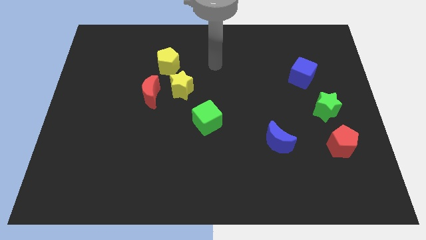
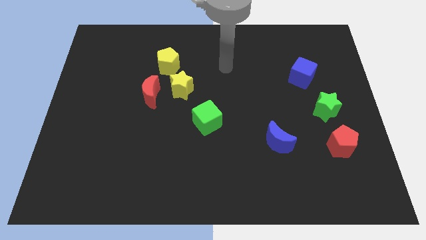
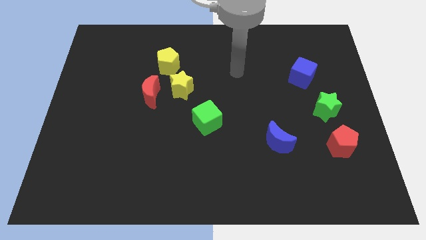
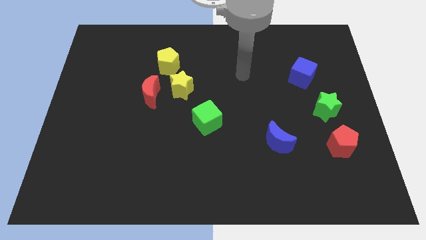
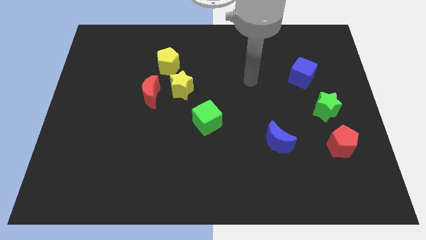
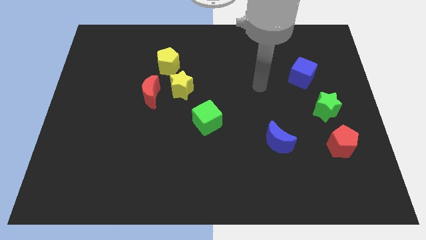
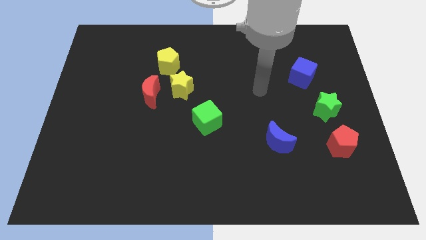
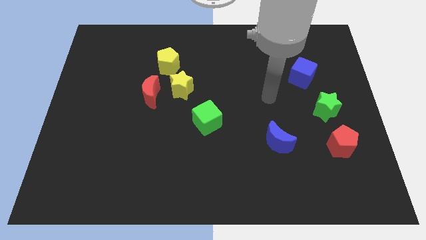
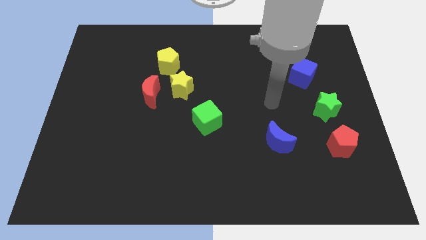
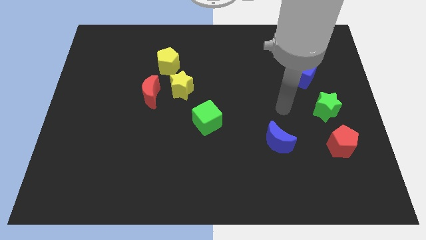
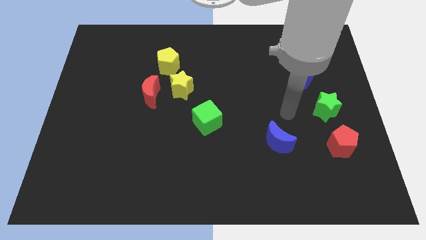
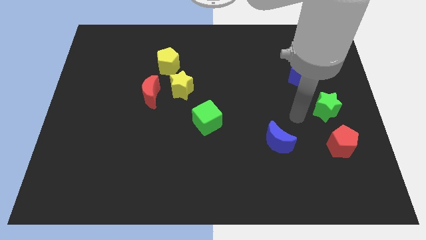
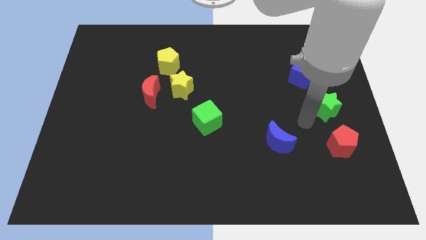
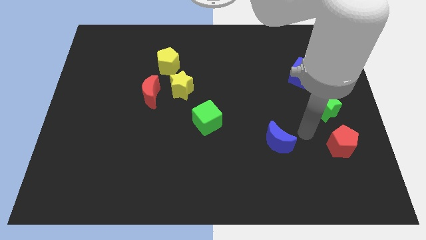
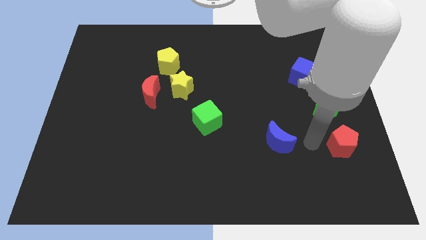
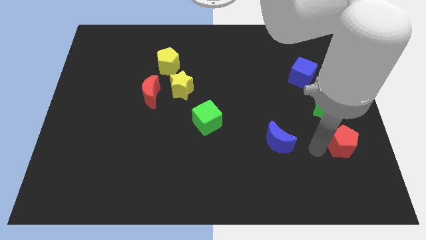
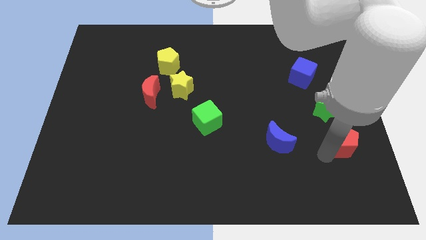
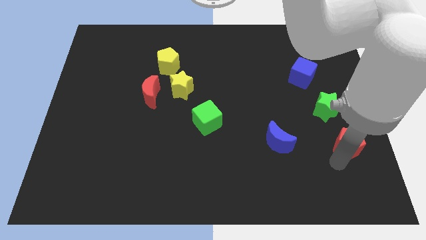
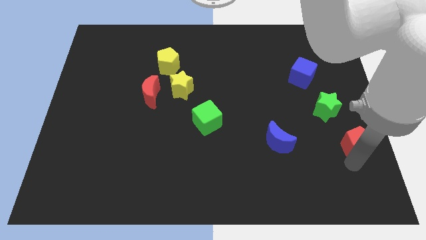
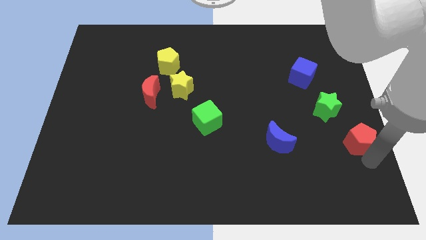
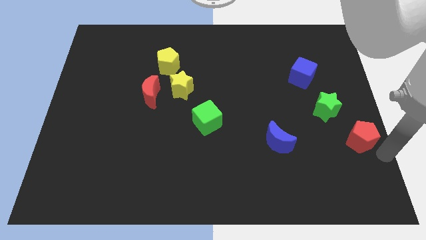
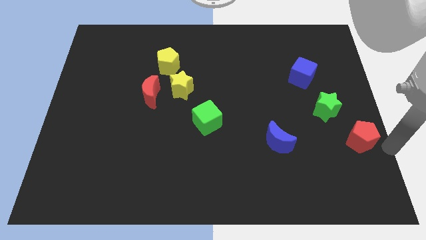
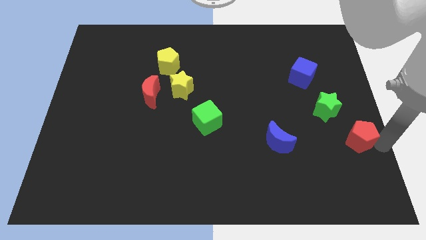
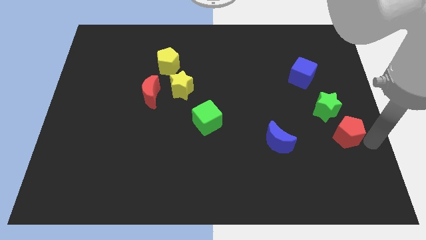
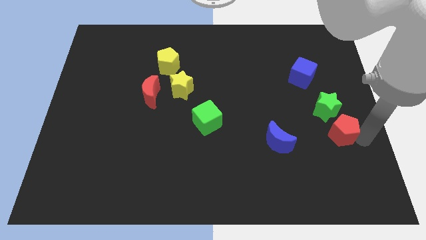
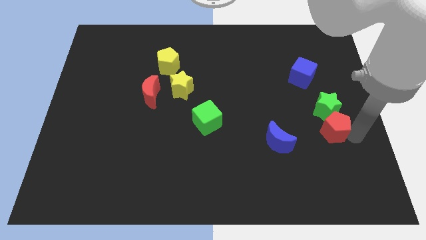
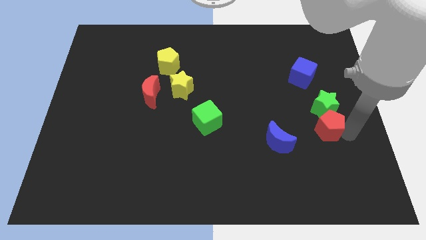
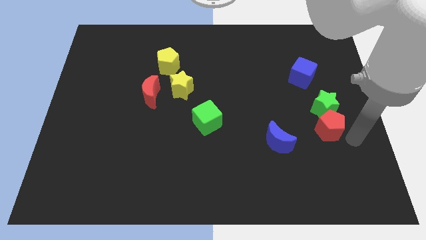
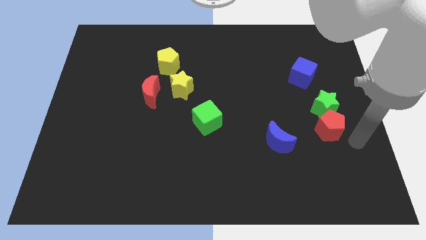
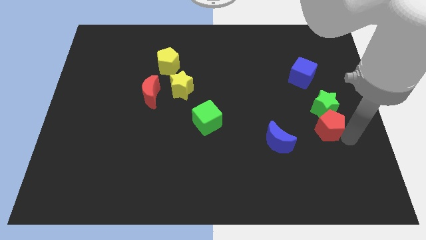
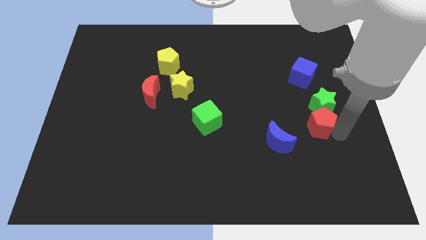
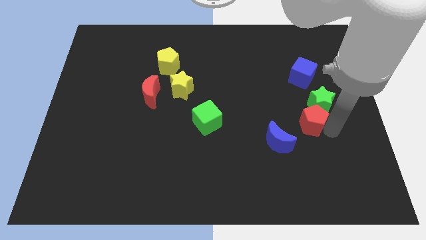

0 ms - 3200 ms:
push the red pentagon up and then to the left somewhat

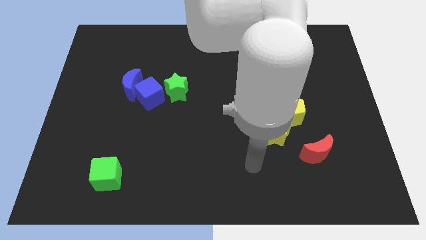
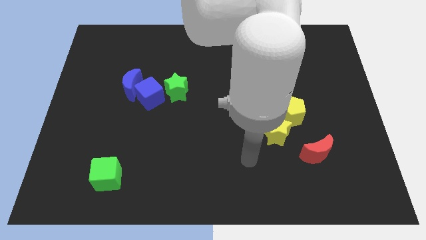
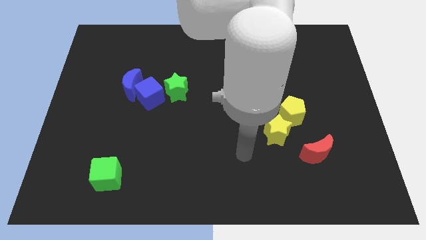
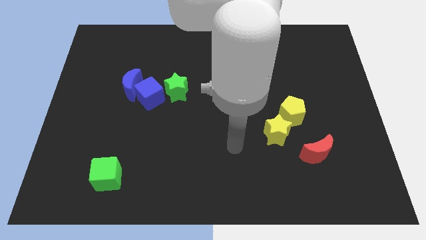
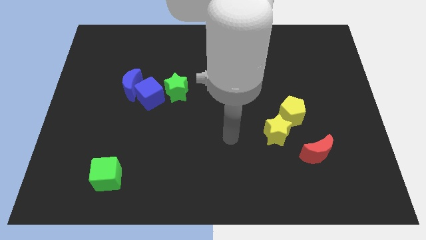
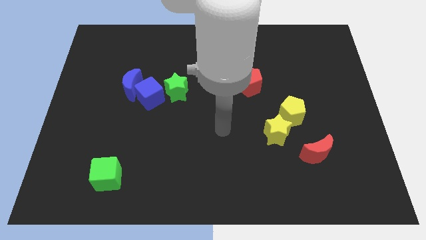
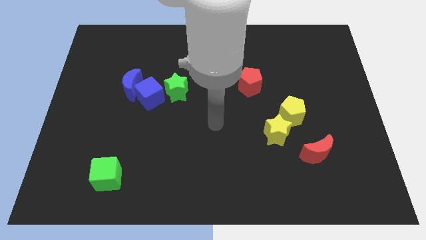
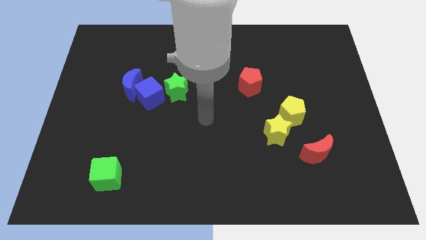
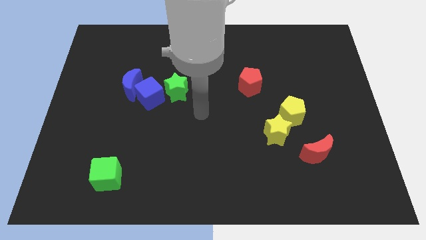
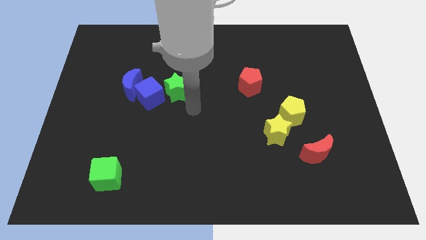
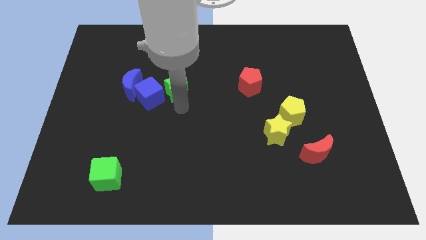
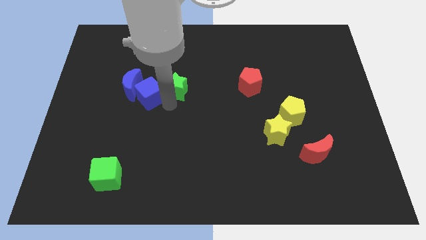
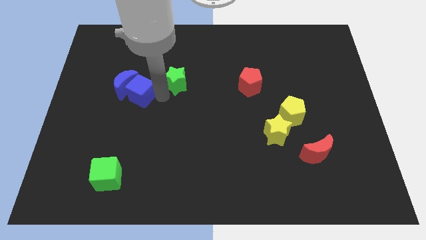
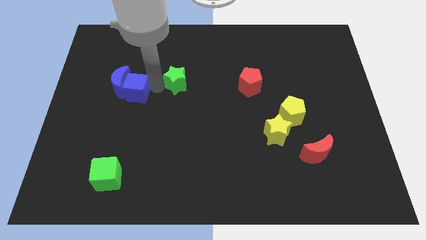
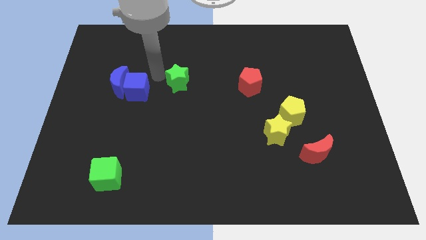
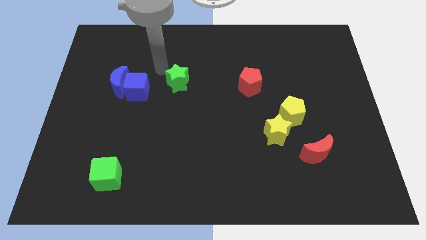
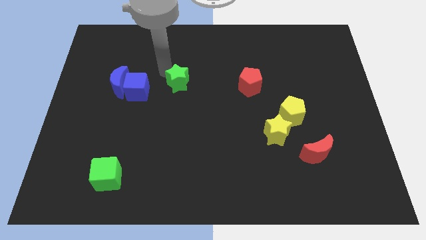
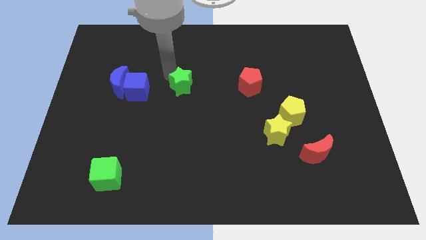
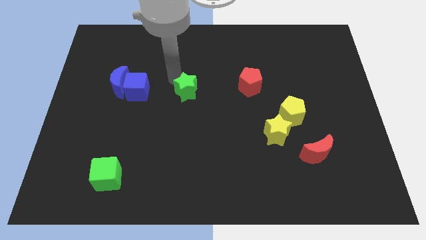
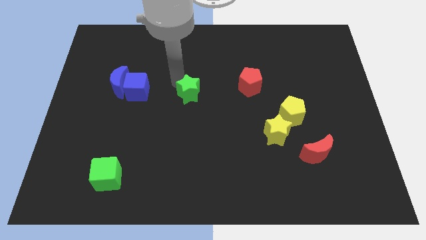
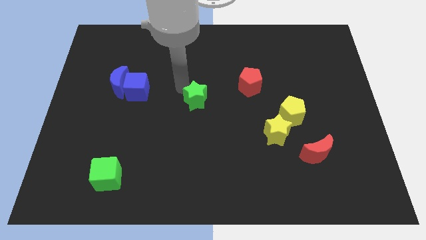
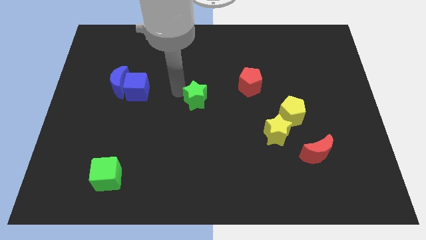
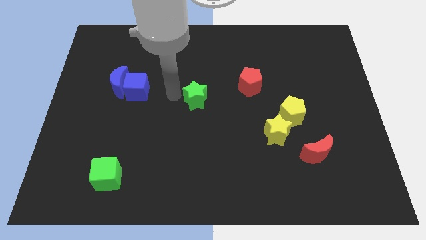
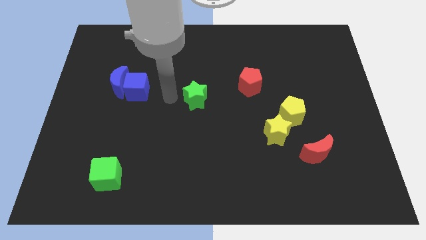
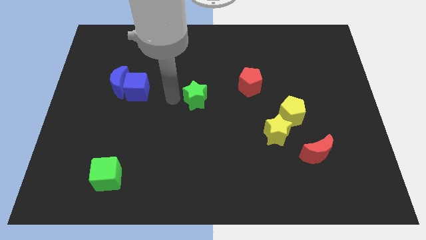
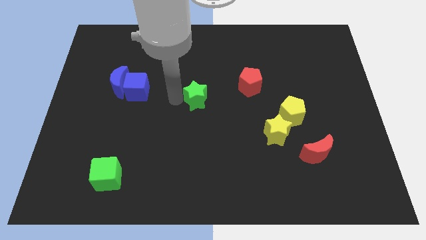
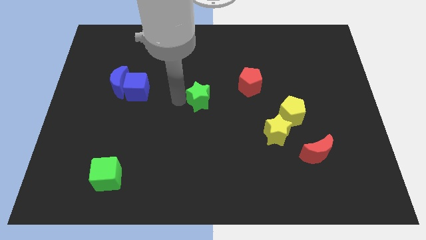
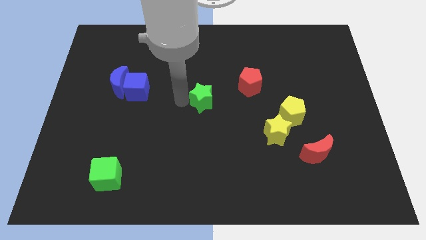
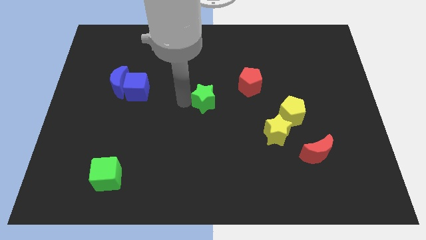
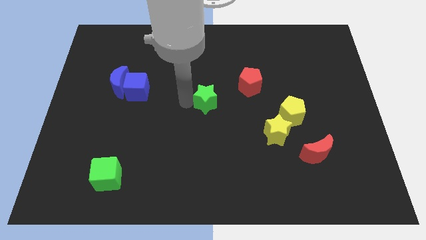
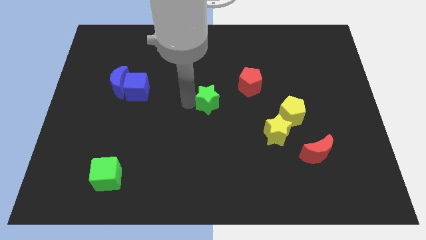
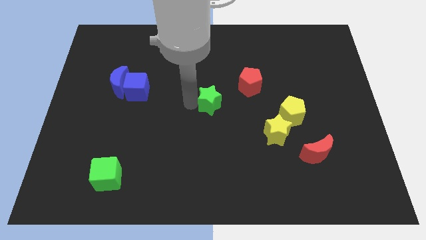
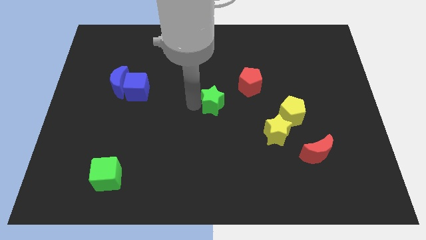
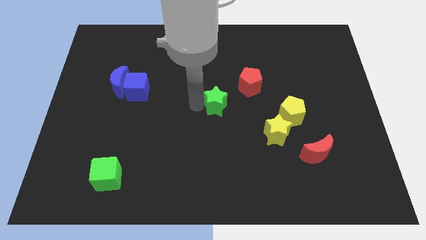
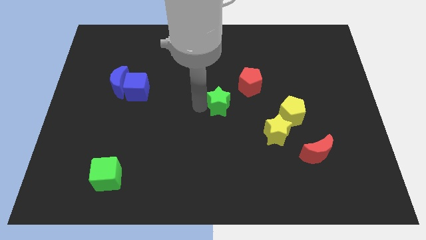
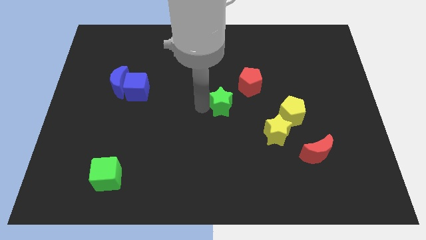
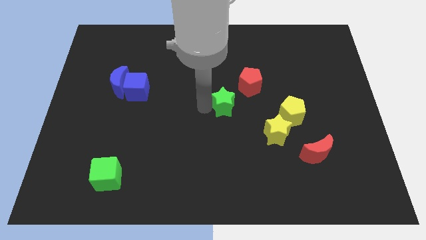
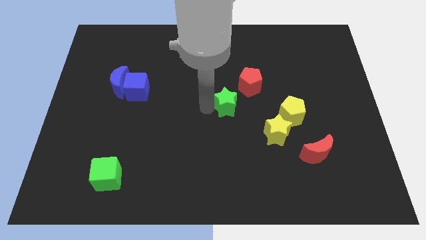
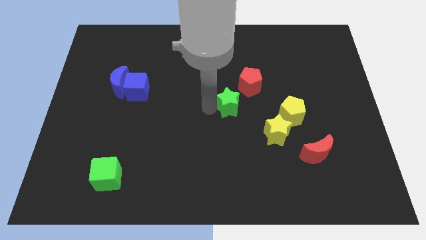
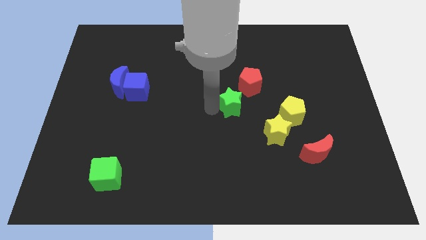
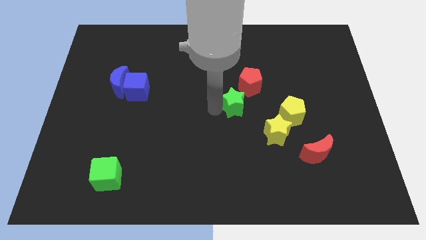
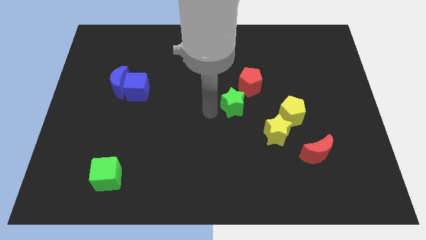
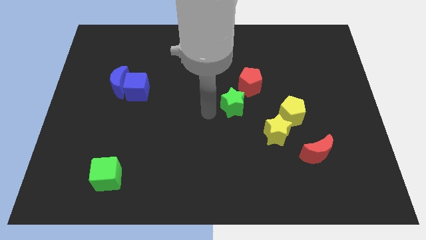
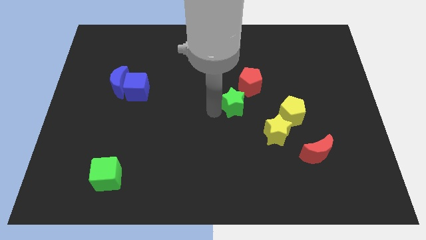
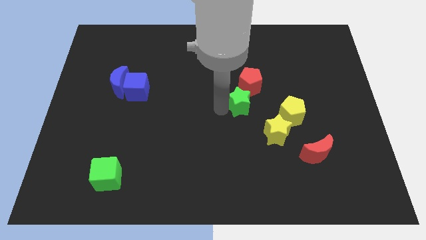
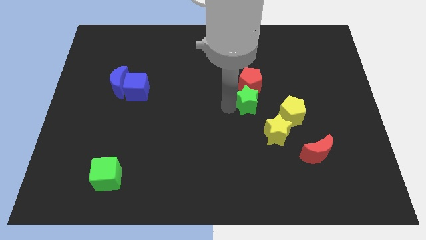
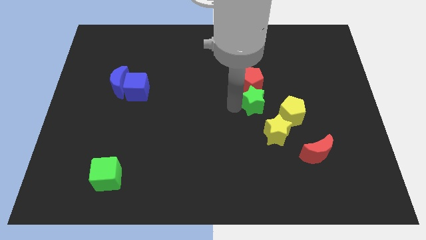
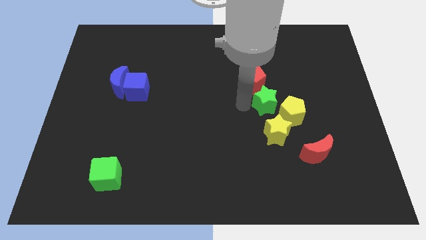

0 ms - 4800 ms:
slide the green star to the right
